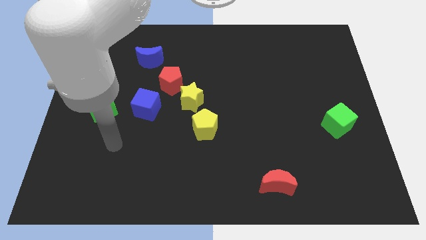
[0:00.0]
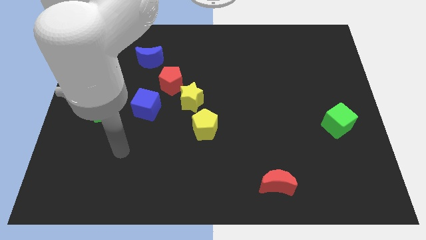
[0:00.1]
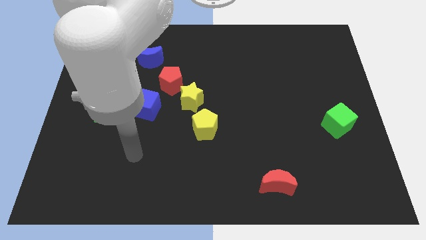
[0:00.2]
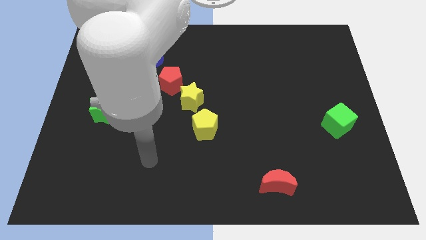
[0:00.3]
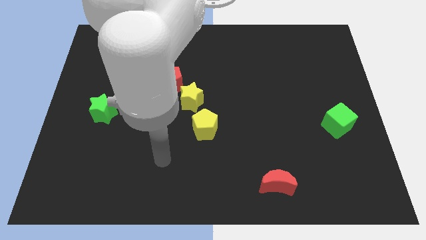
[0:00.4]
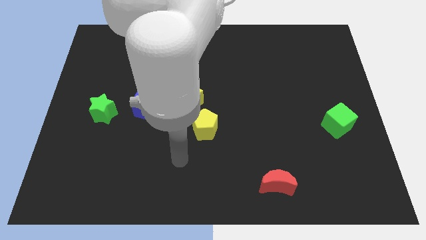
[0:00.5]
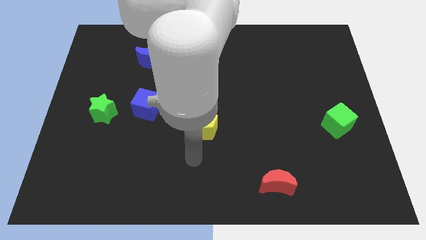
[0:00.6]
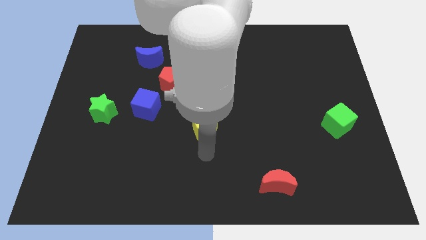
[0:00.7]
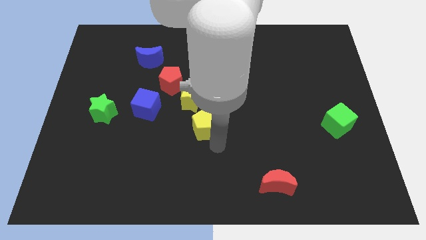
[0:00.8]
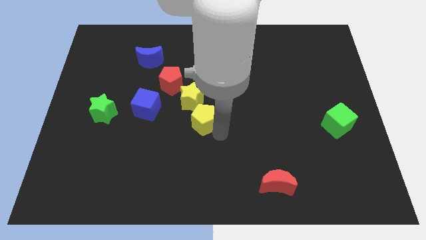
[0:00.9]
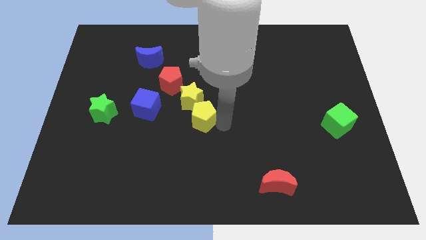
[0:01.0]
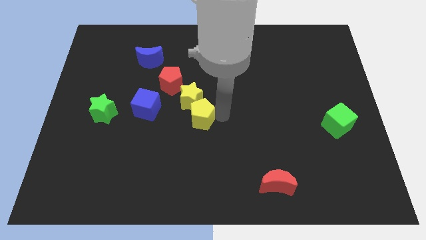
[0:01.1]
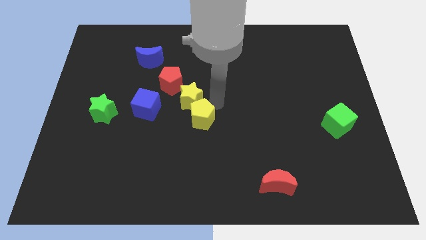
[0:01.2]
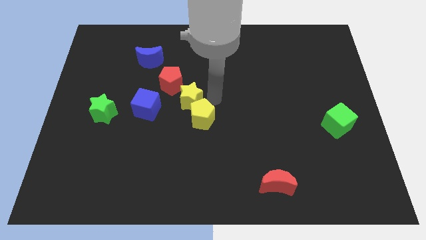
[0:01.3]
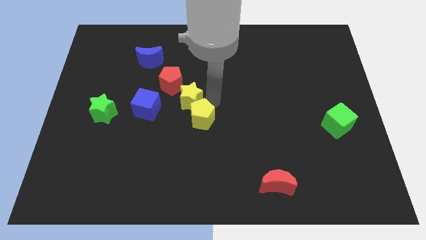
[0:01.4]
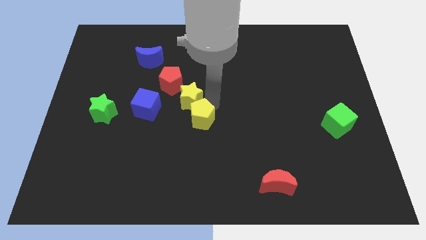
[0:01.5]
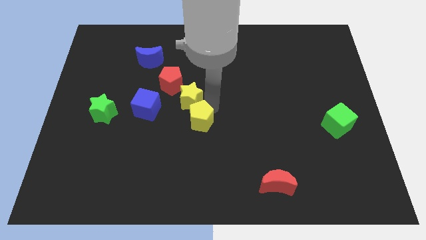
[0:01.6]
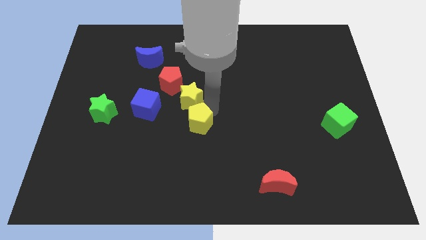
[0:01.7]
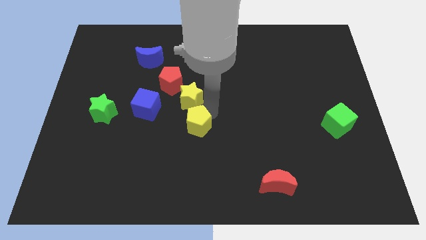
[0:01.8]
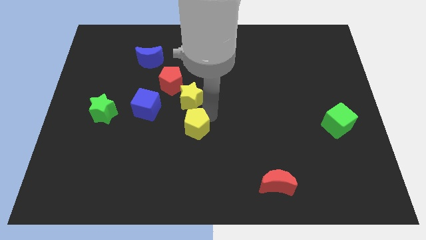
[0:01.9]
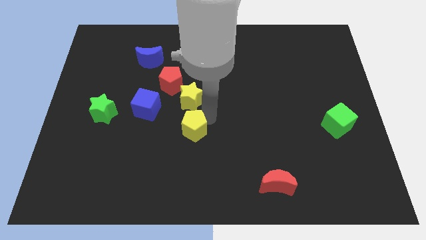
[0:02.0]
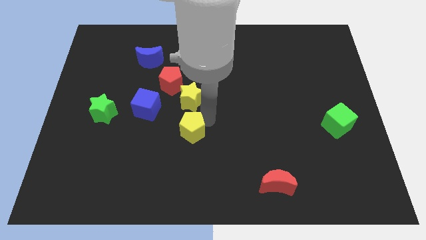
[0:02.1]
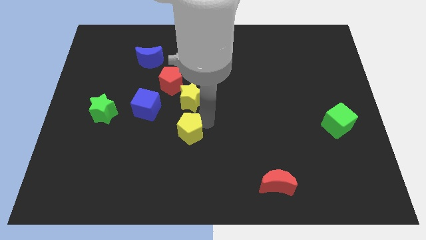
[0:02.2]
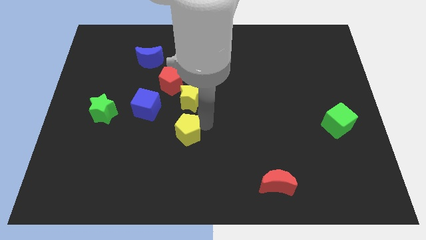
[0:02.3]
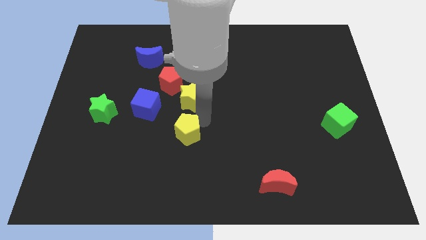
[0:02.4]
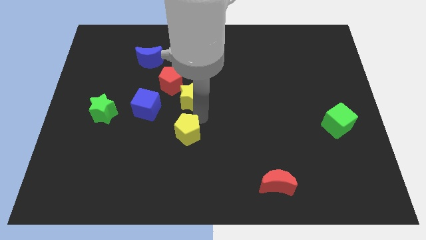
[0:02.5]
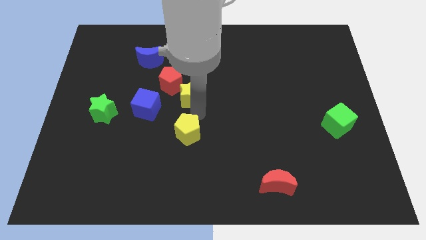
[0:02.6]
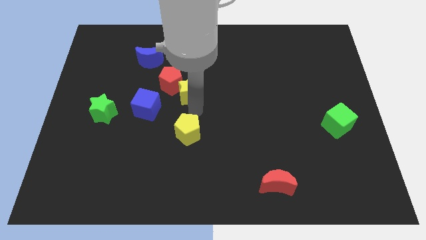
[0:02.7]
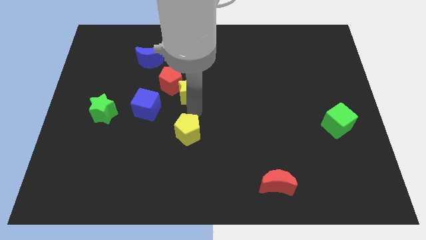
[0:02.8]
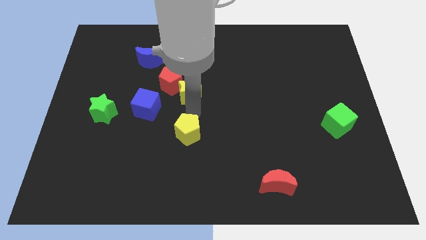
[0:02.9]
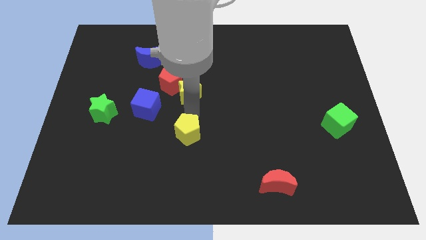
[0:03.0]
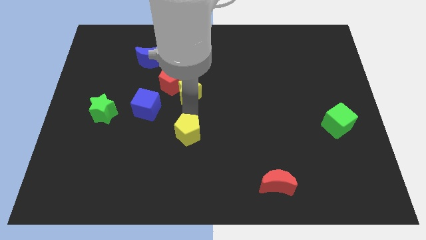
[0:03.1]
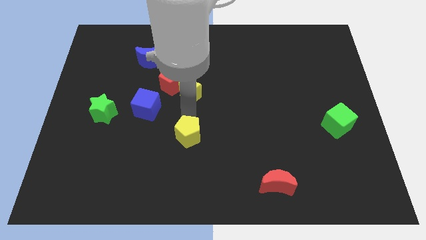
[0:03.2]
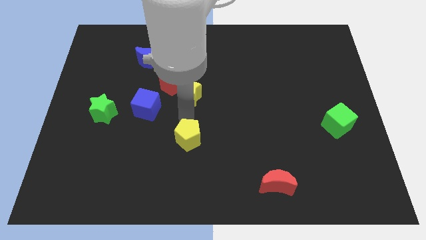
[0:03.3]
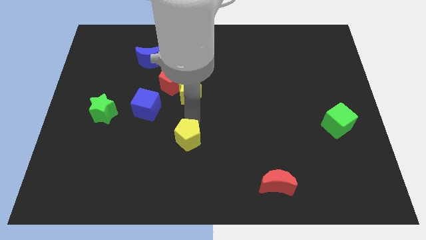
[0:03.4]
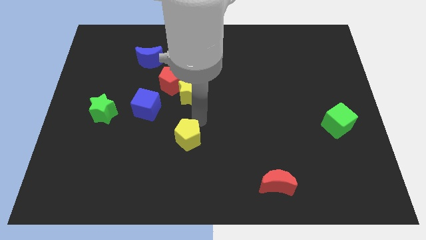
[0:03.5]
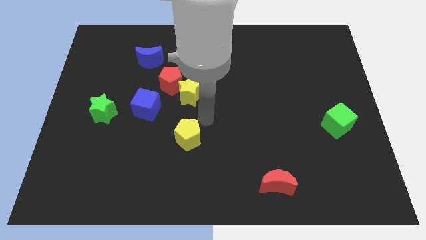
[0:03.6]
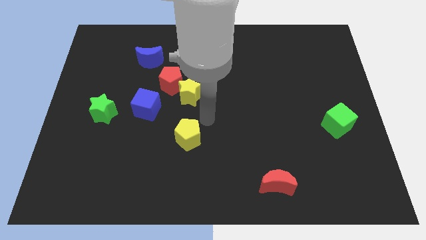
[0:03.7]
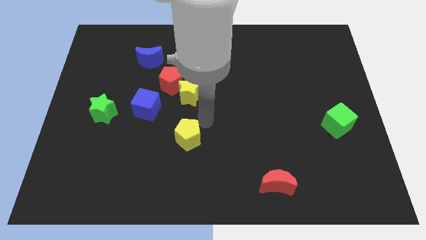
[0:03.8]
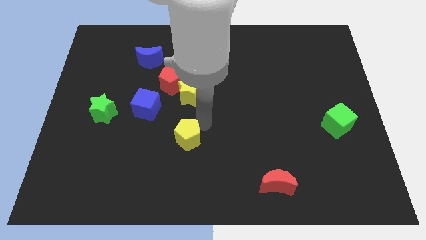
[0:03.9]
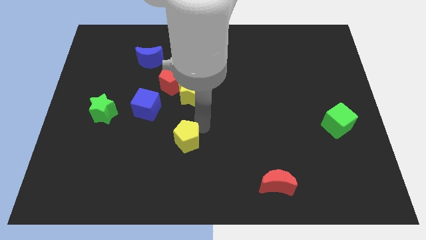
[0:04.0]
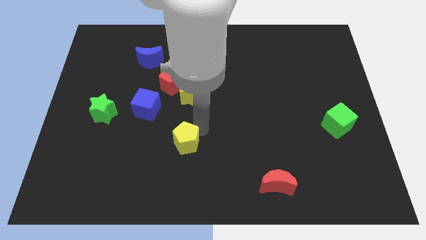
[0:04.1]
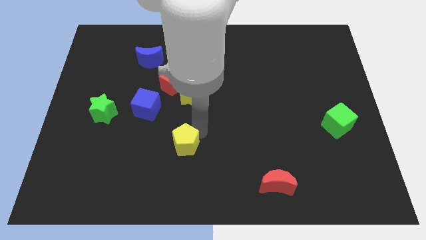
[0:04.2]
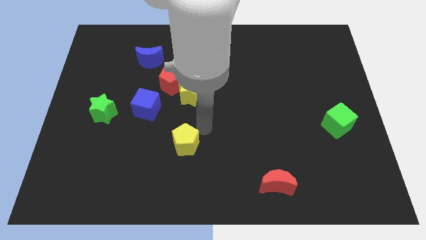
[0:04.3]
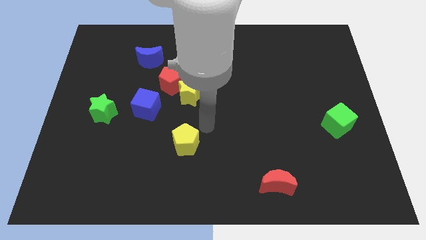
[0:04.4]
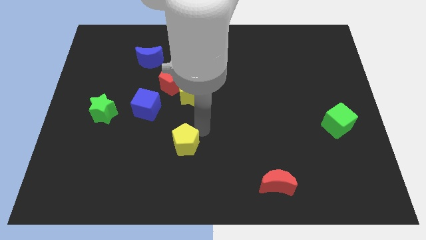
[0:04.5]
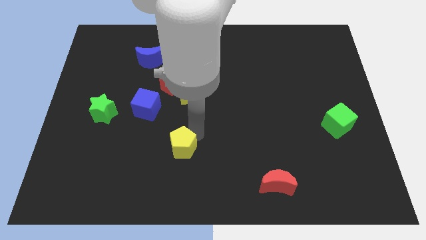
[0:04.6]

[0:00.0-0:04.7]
move the yellow pentagon down and to the left a little bit

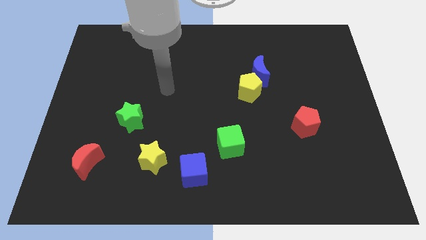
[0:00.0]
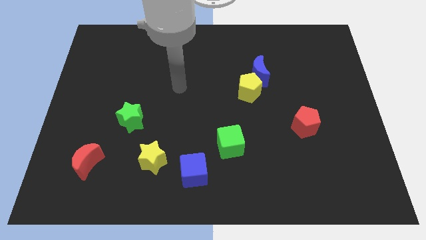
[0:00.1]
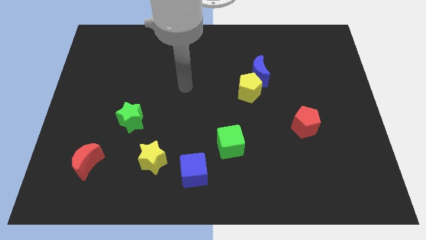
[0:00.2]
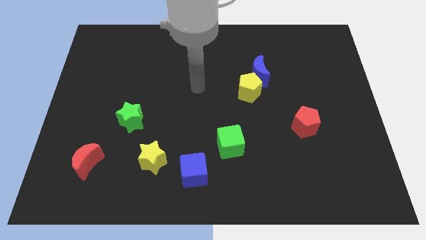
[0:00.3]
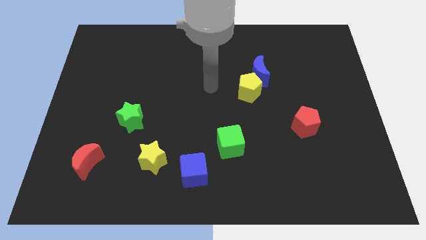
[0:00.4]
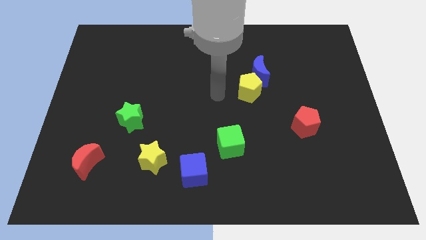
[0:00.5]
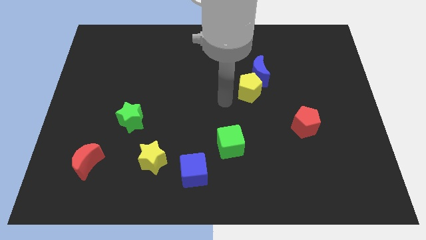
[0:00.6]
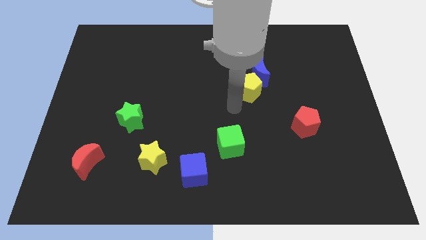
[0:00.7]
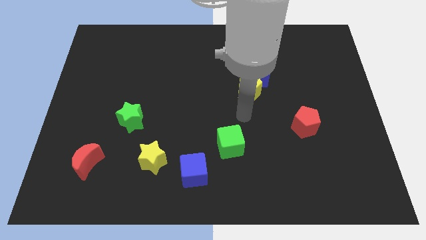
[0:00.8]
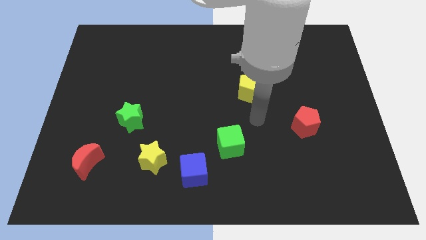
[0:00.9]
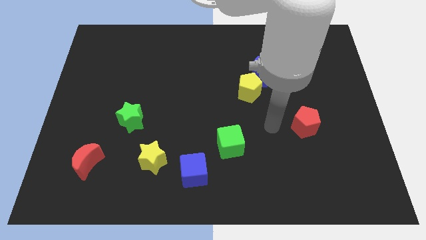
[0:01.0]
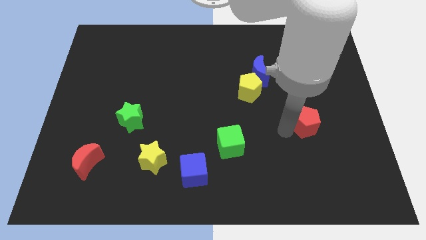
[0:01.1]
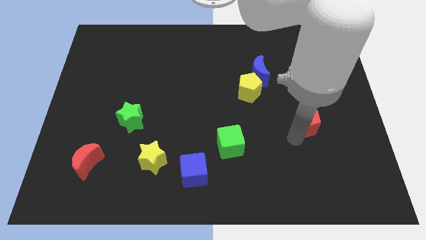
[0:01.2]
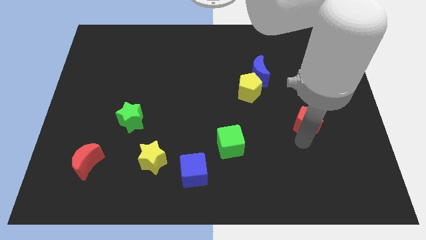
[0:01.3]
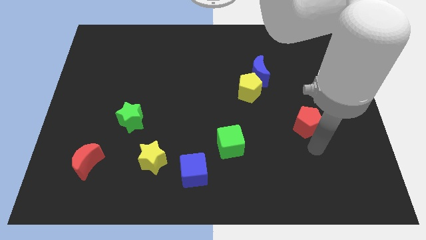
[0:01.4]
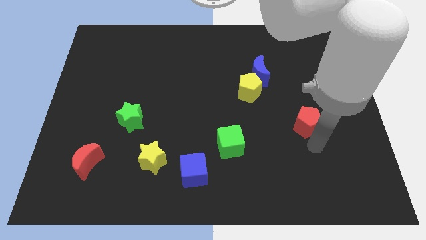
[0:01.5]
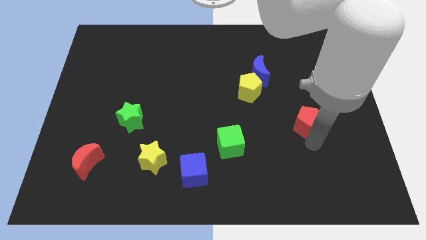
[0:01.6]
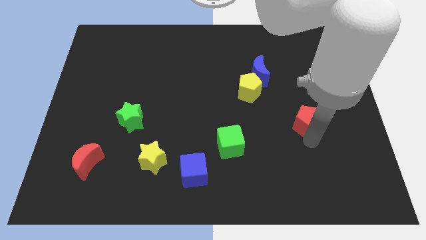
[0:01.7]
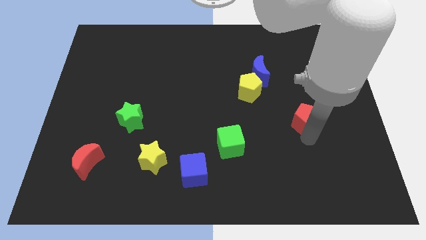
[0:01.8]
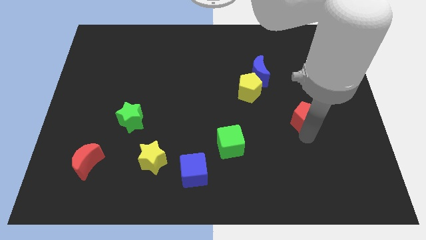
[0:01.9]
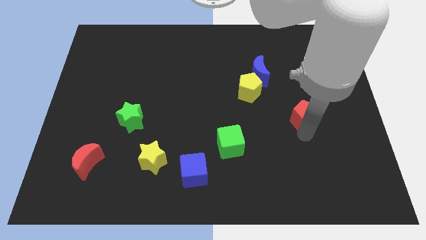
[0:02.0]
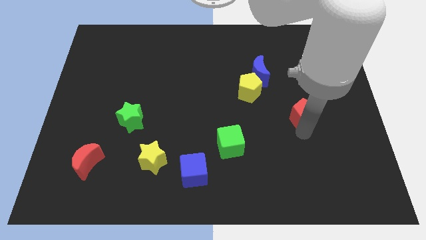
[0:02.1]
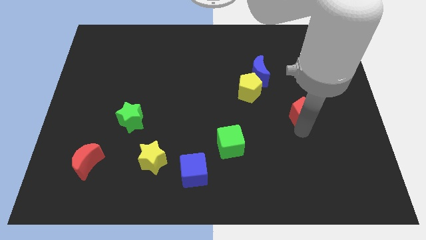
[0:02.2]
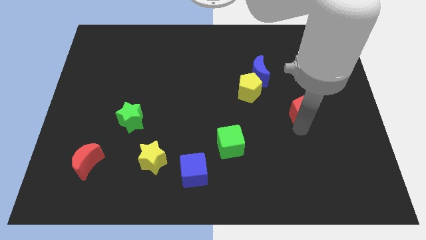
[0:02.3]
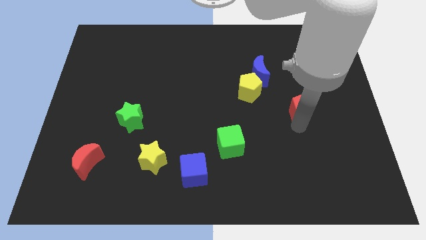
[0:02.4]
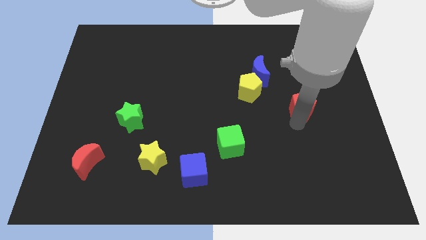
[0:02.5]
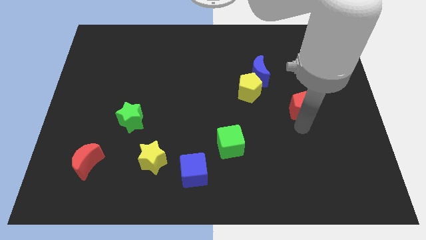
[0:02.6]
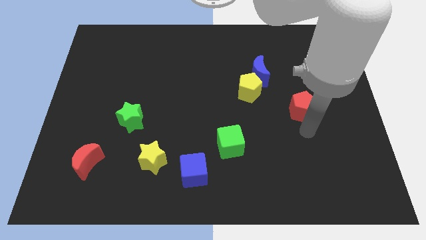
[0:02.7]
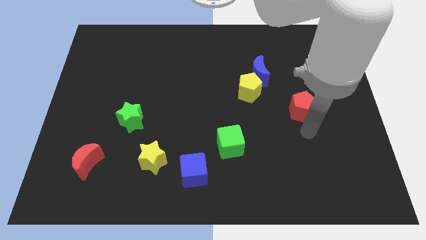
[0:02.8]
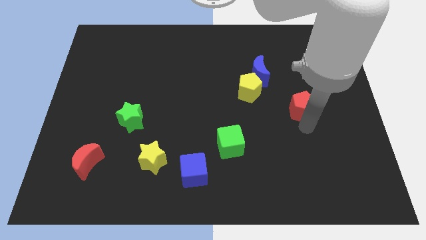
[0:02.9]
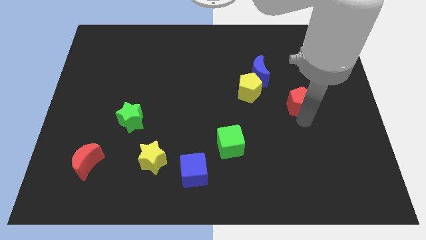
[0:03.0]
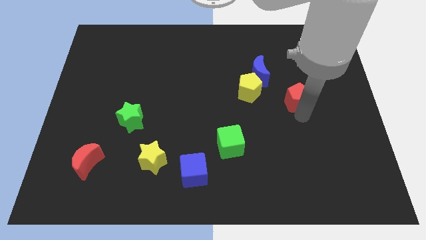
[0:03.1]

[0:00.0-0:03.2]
move the red pentagon slightly up

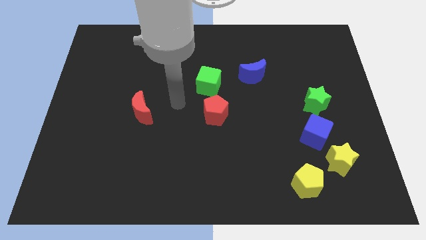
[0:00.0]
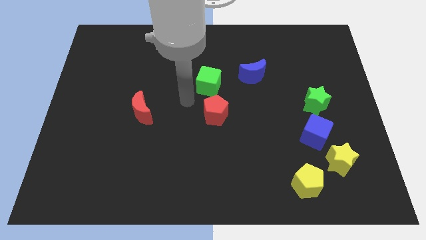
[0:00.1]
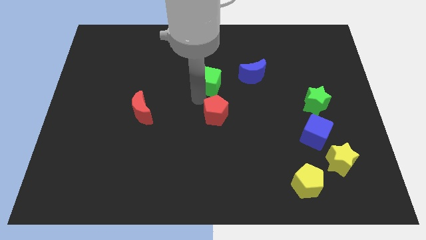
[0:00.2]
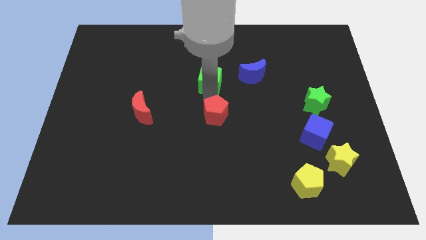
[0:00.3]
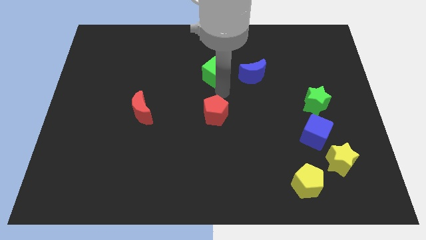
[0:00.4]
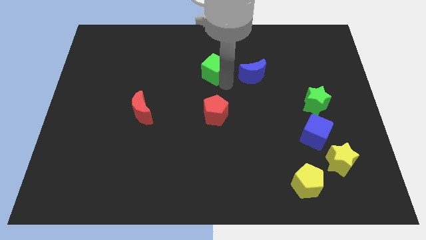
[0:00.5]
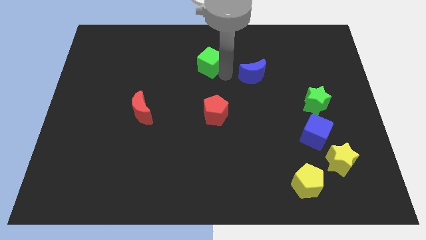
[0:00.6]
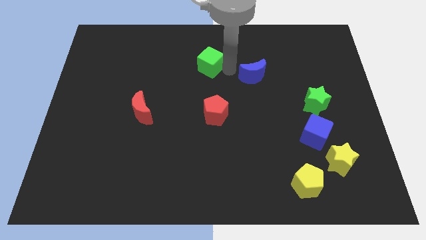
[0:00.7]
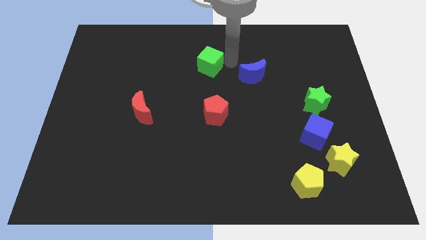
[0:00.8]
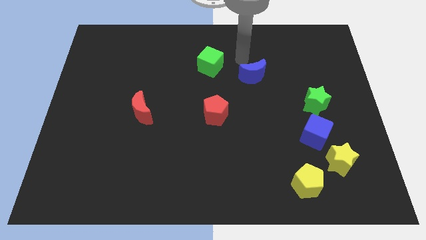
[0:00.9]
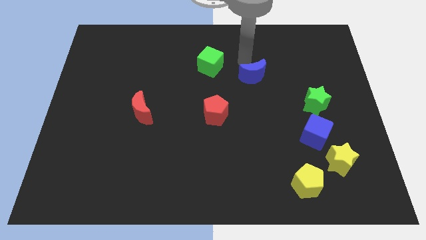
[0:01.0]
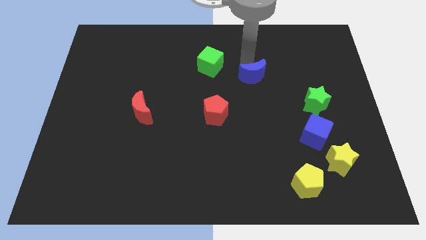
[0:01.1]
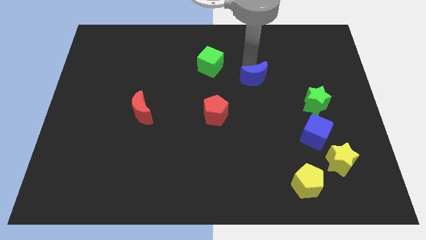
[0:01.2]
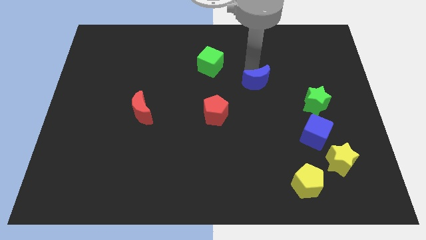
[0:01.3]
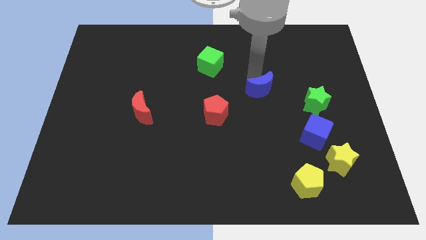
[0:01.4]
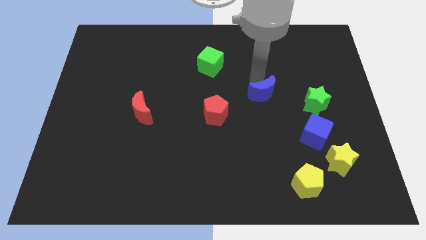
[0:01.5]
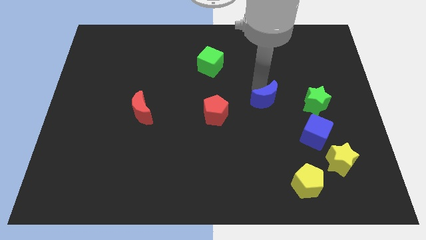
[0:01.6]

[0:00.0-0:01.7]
push the blue moon slightly down and then right
